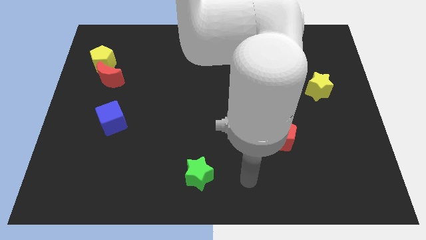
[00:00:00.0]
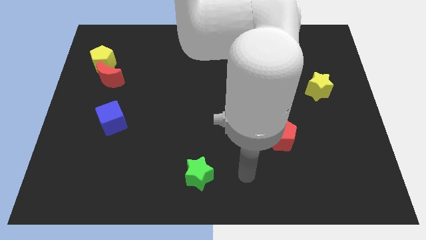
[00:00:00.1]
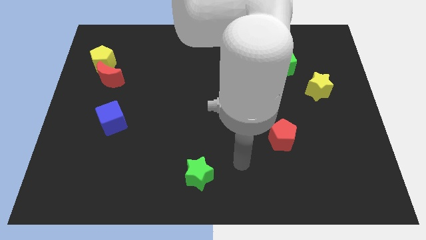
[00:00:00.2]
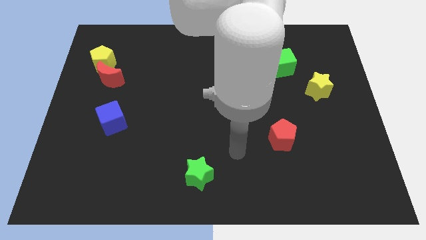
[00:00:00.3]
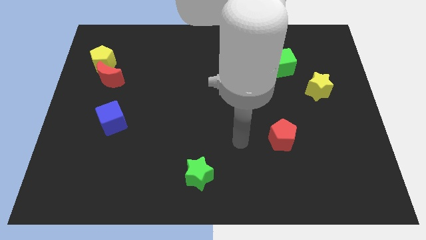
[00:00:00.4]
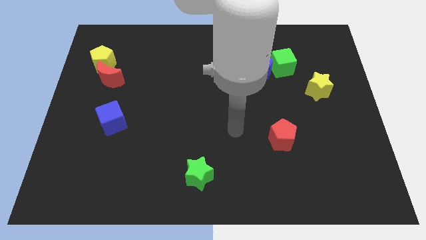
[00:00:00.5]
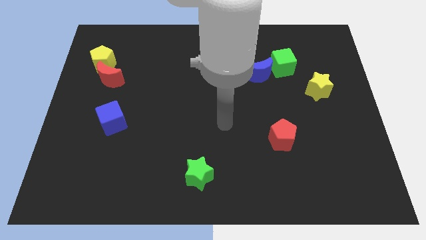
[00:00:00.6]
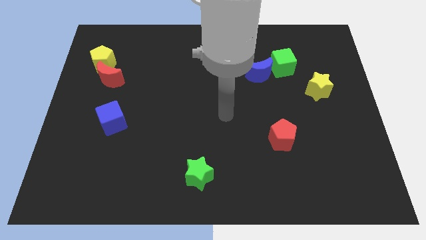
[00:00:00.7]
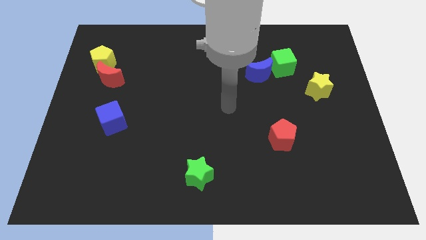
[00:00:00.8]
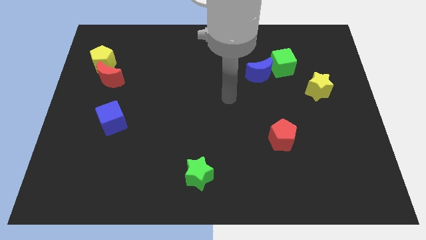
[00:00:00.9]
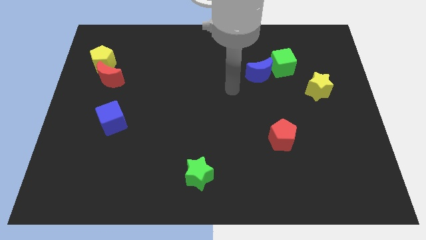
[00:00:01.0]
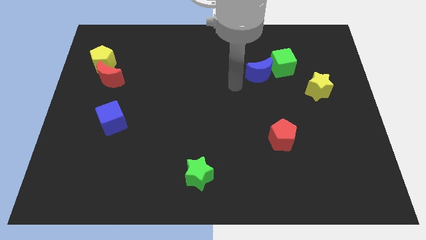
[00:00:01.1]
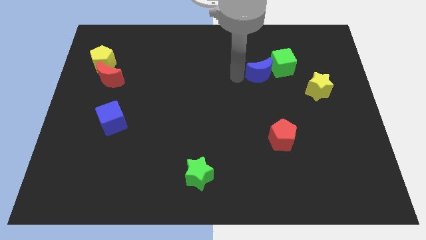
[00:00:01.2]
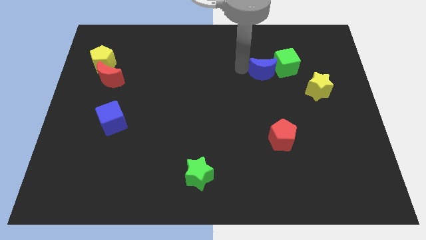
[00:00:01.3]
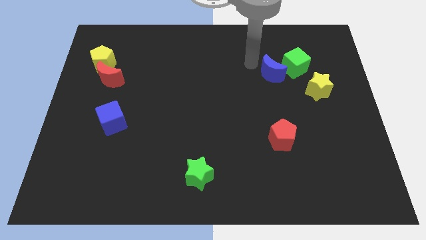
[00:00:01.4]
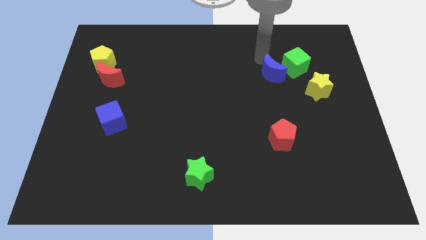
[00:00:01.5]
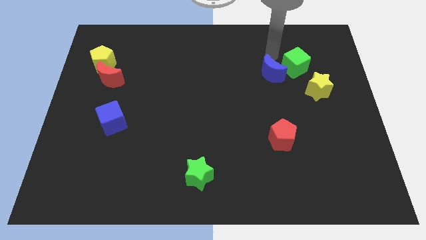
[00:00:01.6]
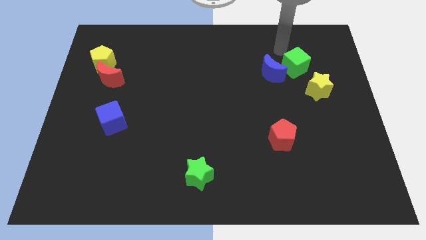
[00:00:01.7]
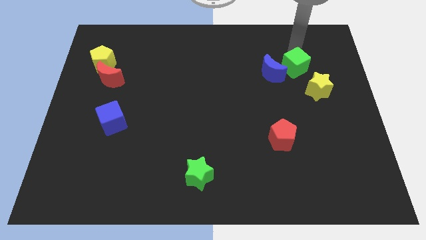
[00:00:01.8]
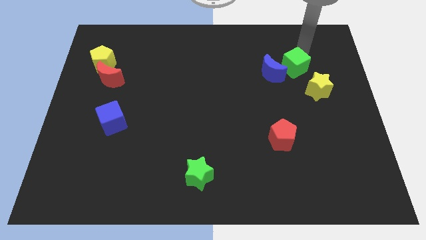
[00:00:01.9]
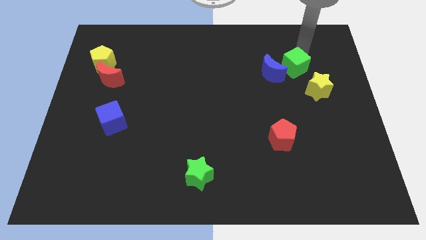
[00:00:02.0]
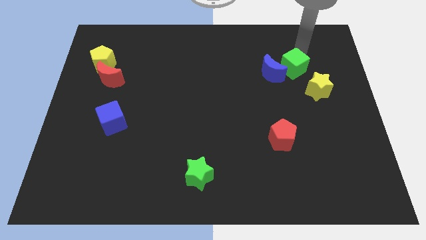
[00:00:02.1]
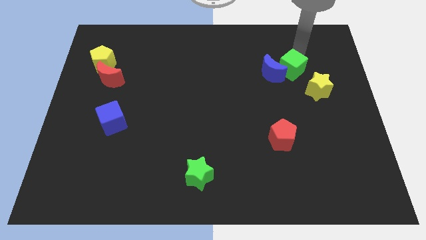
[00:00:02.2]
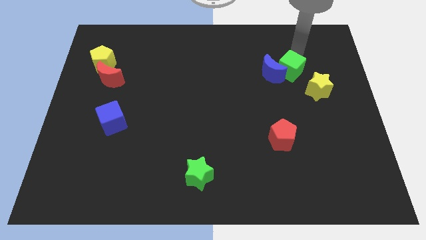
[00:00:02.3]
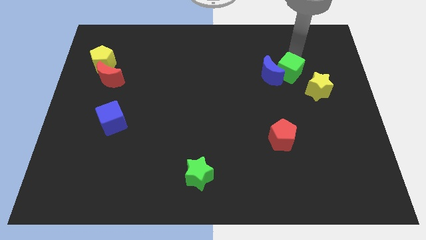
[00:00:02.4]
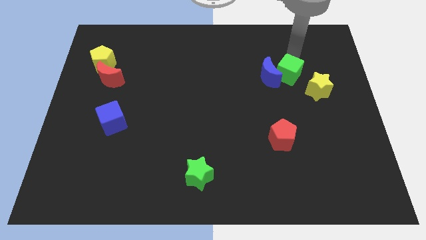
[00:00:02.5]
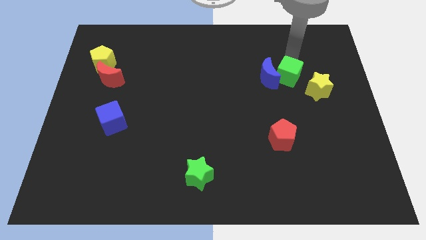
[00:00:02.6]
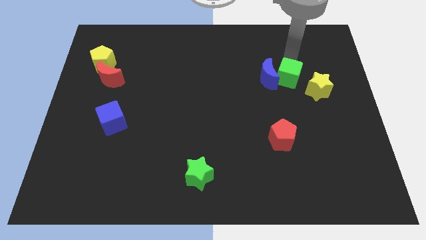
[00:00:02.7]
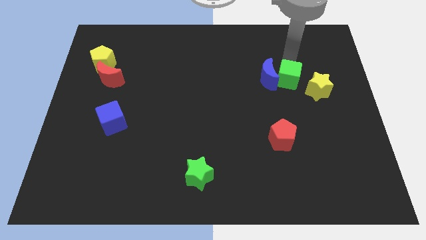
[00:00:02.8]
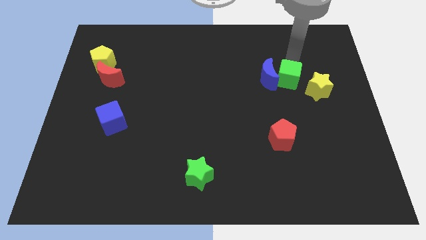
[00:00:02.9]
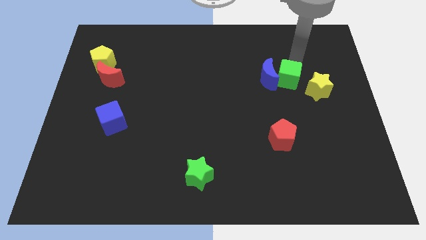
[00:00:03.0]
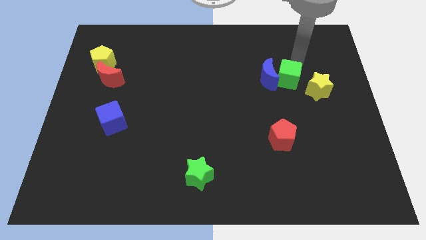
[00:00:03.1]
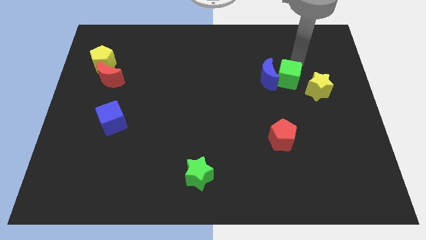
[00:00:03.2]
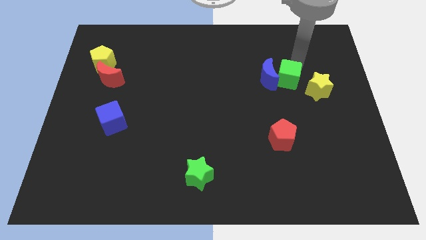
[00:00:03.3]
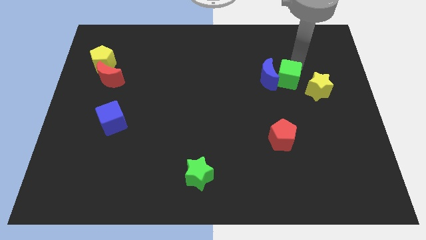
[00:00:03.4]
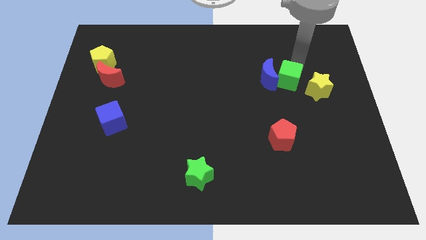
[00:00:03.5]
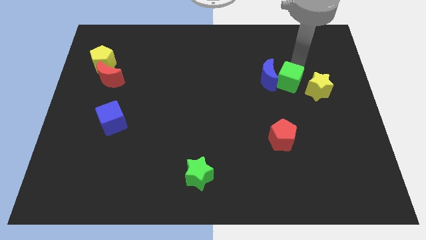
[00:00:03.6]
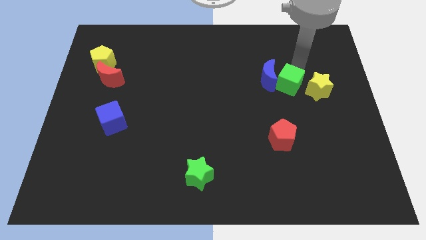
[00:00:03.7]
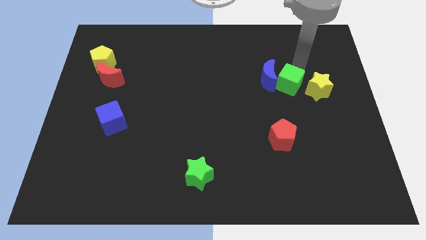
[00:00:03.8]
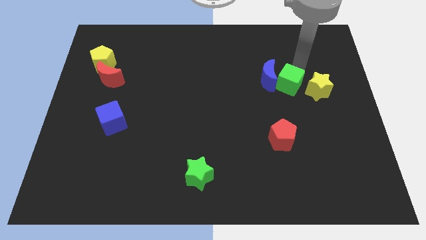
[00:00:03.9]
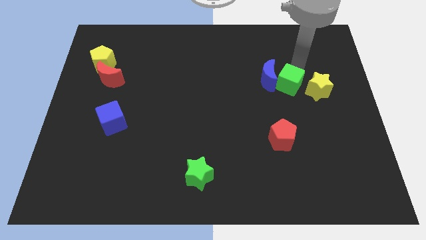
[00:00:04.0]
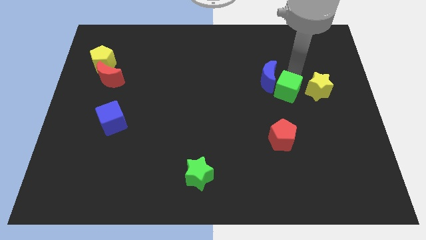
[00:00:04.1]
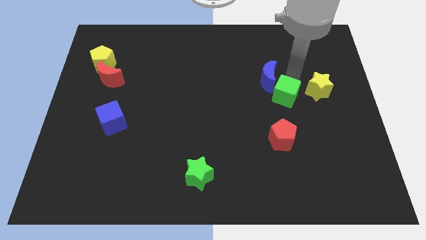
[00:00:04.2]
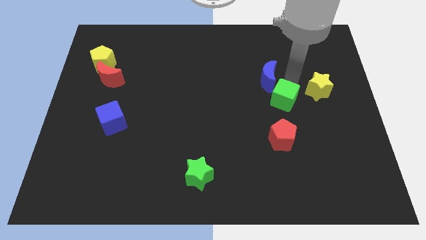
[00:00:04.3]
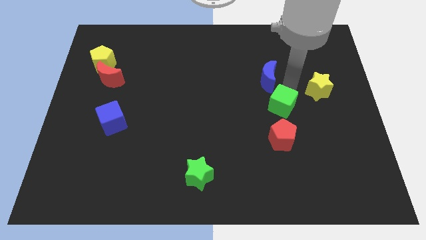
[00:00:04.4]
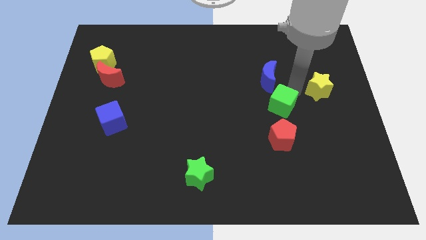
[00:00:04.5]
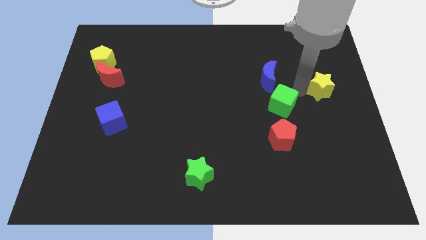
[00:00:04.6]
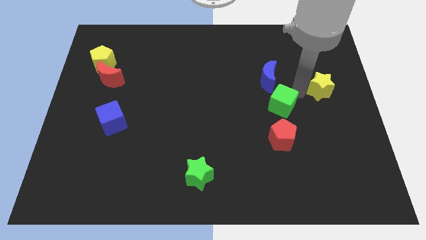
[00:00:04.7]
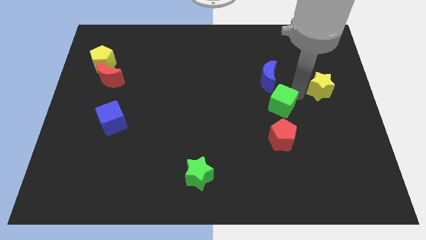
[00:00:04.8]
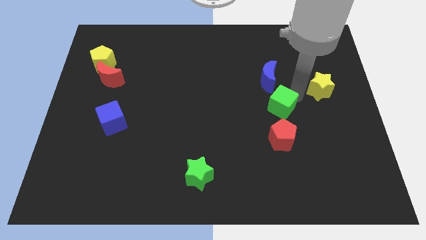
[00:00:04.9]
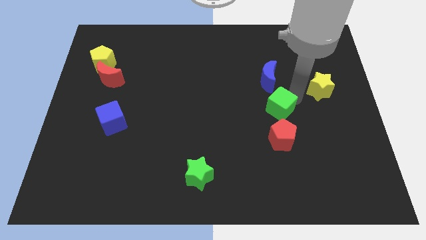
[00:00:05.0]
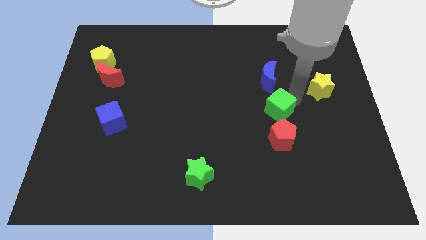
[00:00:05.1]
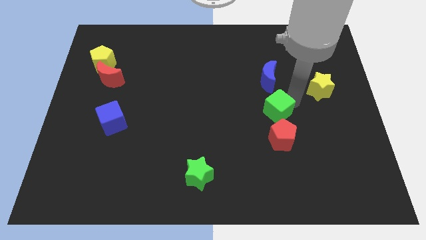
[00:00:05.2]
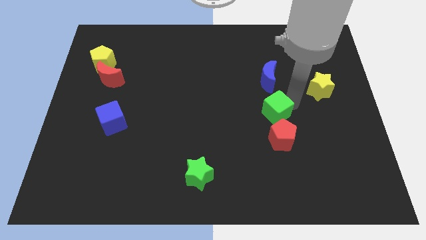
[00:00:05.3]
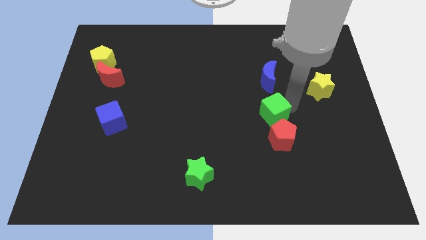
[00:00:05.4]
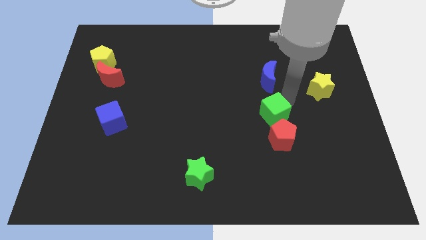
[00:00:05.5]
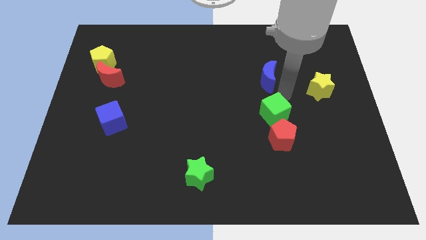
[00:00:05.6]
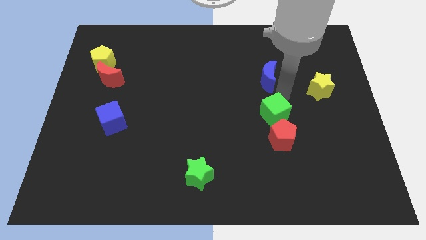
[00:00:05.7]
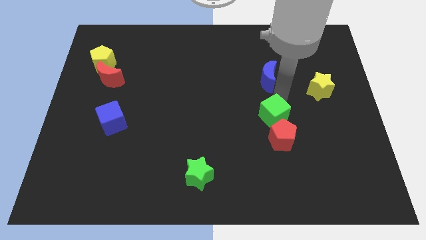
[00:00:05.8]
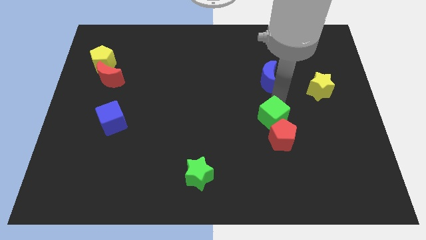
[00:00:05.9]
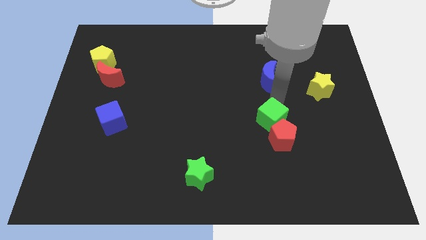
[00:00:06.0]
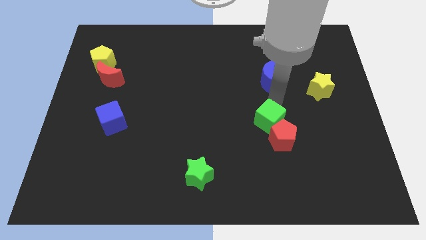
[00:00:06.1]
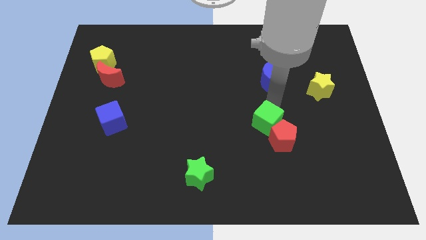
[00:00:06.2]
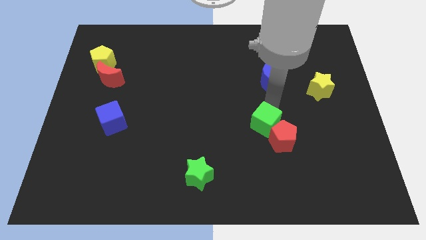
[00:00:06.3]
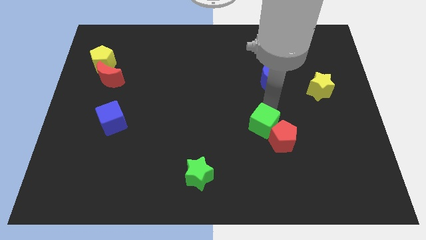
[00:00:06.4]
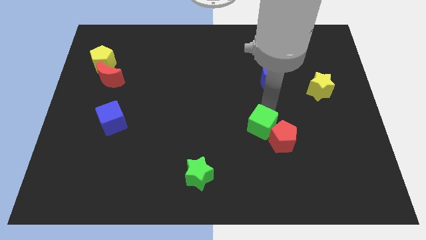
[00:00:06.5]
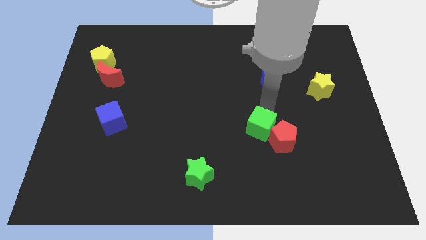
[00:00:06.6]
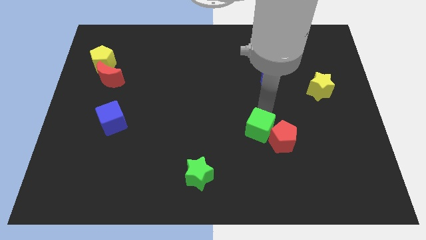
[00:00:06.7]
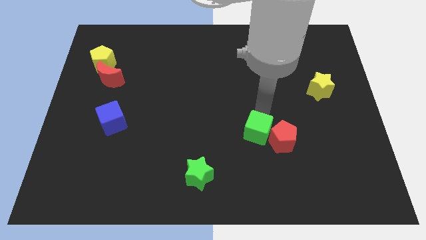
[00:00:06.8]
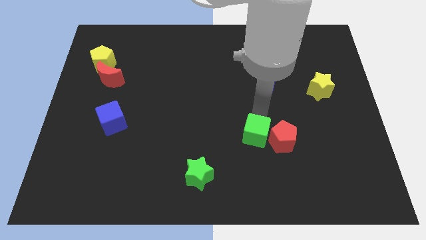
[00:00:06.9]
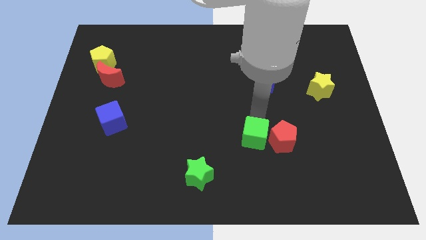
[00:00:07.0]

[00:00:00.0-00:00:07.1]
push the green cube to the bottom left of the red pentagon
